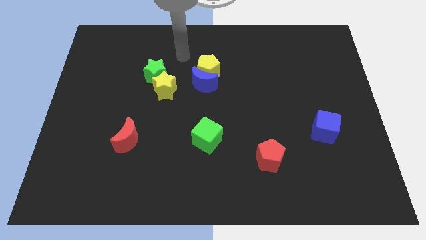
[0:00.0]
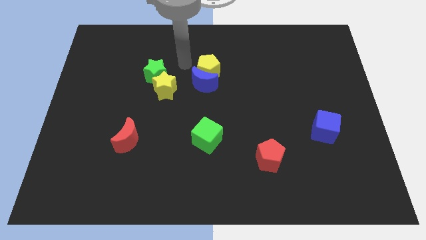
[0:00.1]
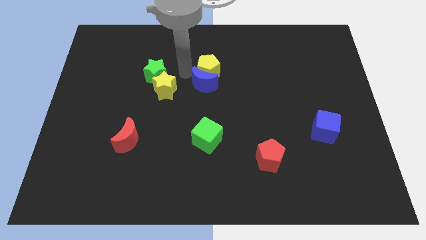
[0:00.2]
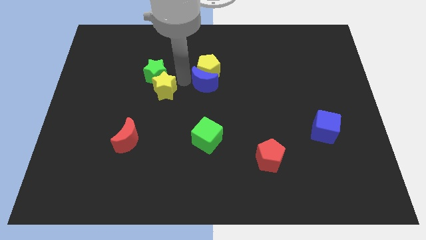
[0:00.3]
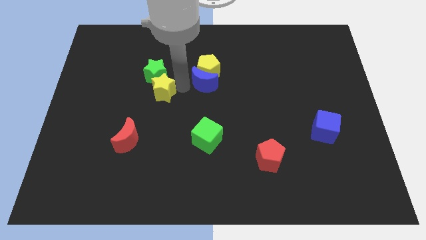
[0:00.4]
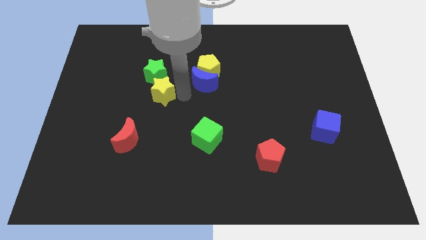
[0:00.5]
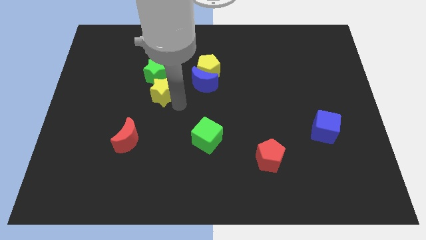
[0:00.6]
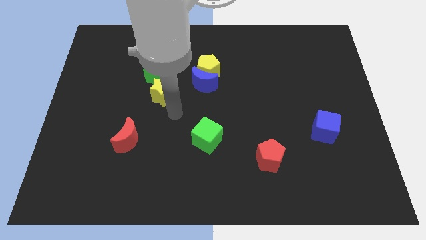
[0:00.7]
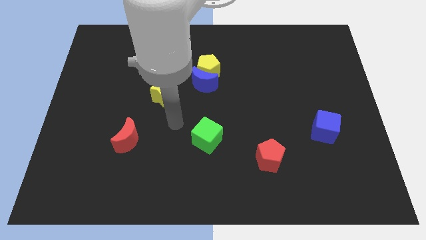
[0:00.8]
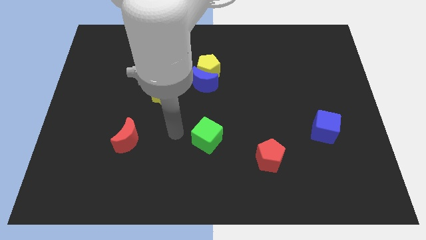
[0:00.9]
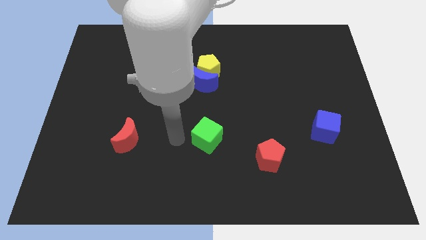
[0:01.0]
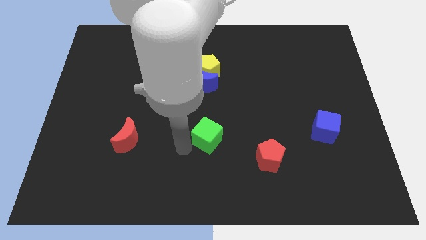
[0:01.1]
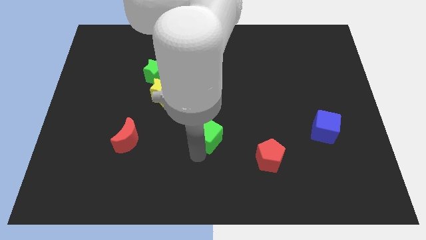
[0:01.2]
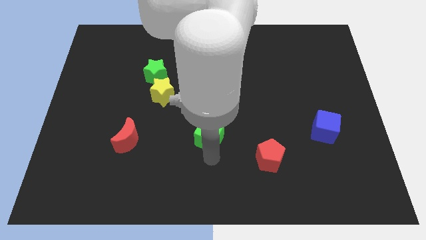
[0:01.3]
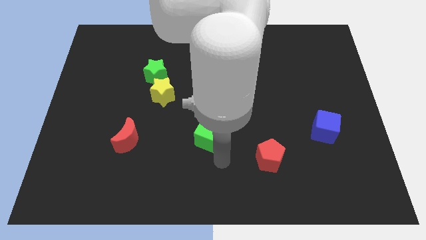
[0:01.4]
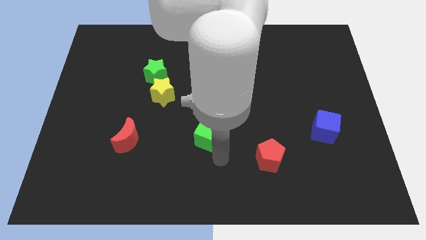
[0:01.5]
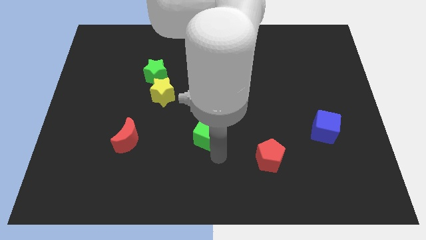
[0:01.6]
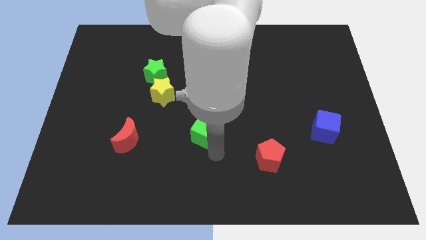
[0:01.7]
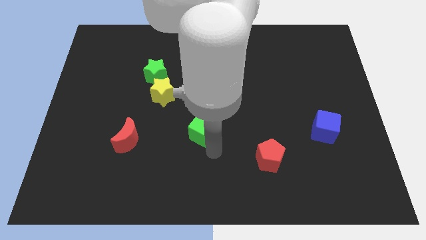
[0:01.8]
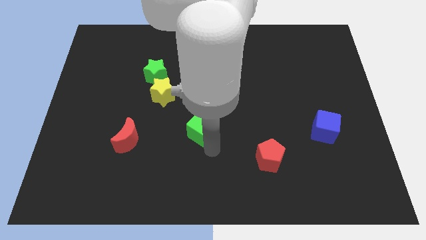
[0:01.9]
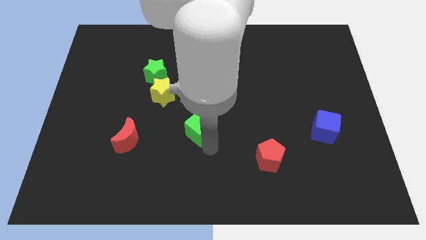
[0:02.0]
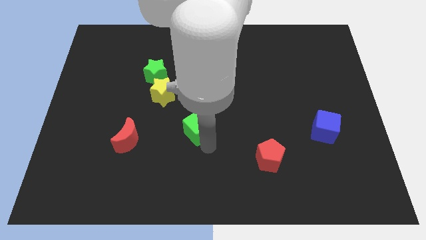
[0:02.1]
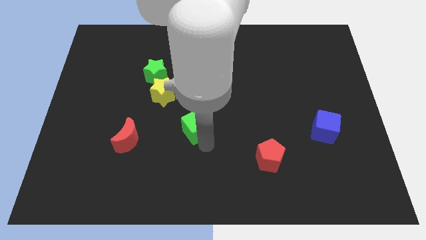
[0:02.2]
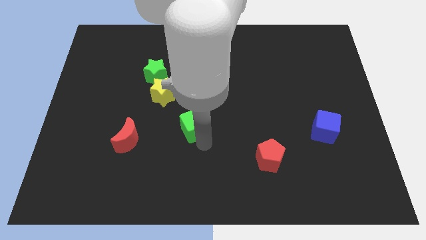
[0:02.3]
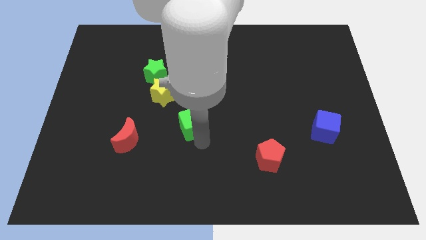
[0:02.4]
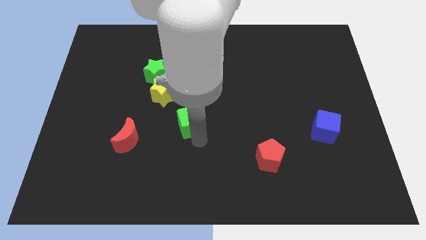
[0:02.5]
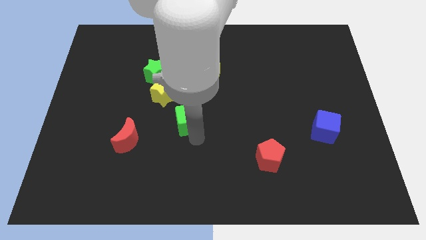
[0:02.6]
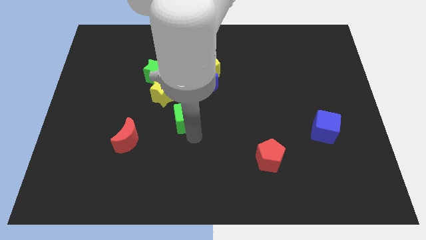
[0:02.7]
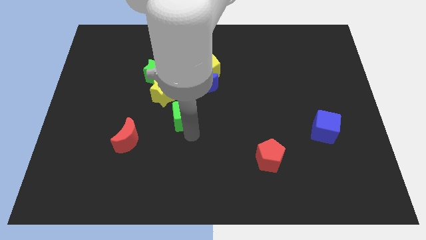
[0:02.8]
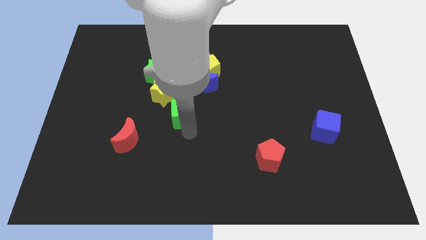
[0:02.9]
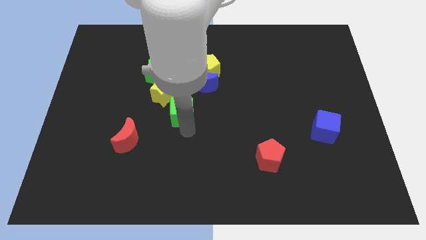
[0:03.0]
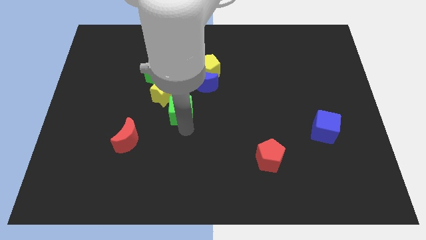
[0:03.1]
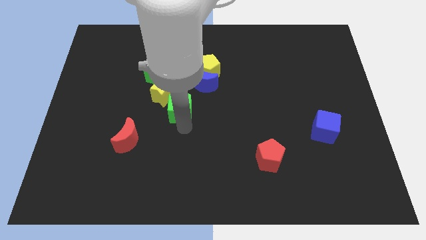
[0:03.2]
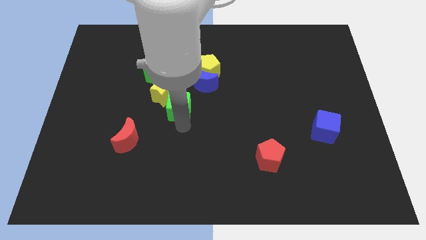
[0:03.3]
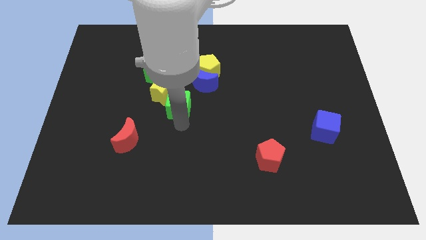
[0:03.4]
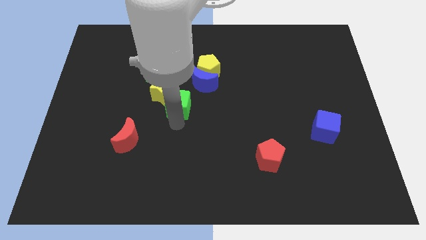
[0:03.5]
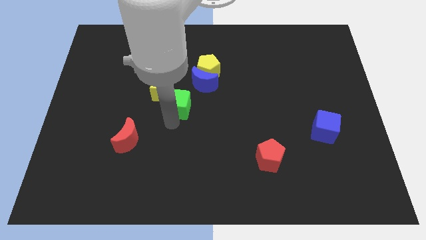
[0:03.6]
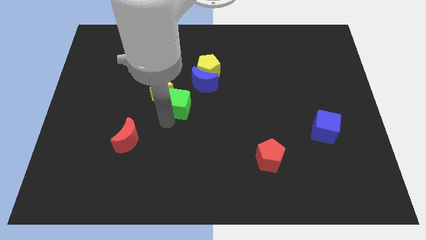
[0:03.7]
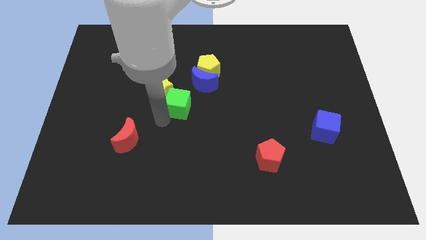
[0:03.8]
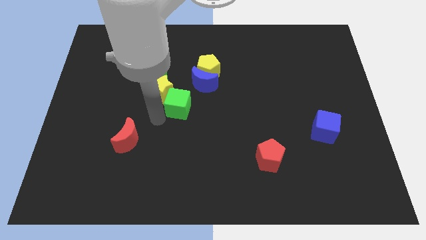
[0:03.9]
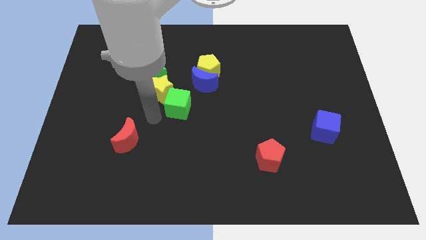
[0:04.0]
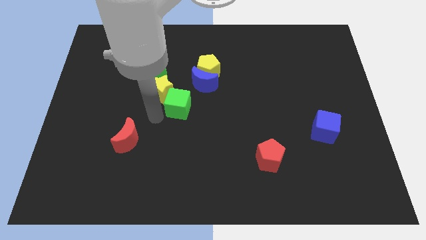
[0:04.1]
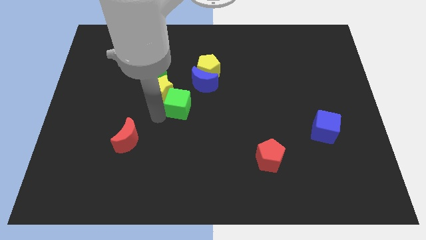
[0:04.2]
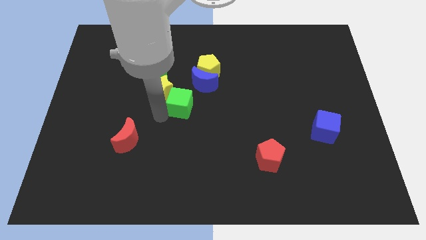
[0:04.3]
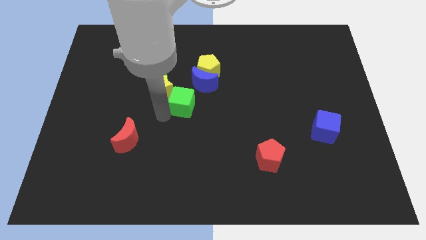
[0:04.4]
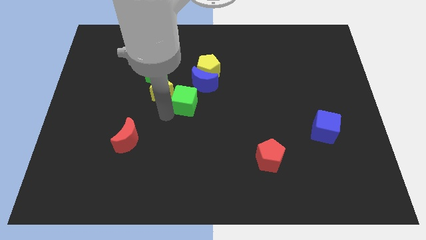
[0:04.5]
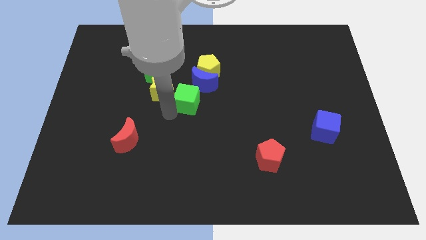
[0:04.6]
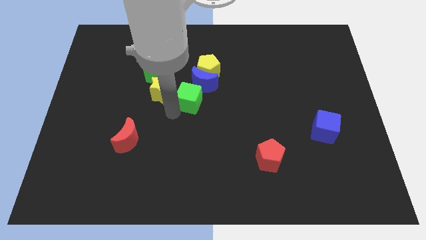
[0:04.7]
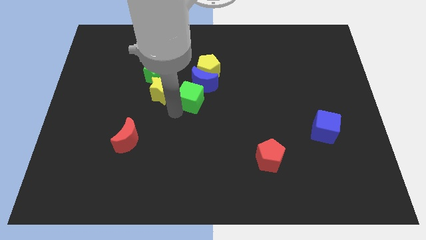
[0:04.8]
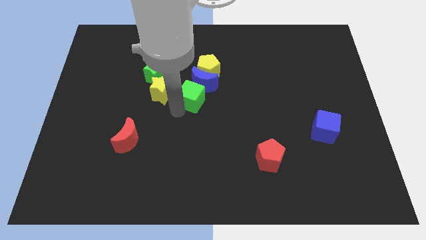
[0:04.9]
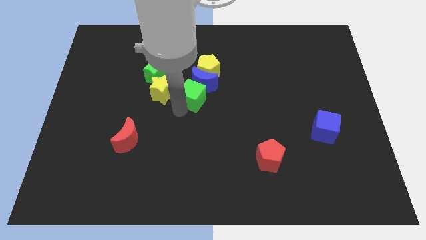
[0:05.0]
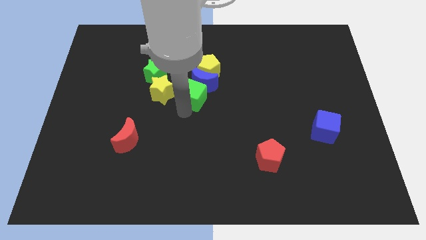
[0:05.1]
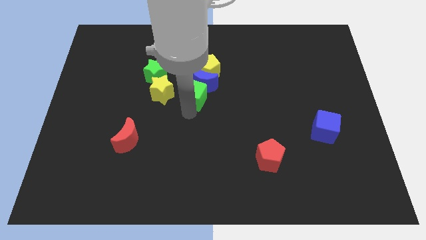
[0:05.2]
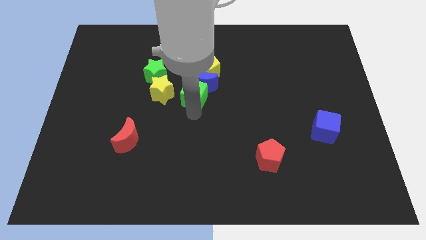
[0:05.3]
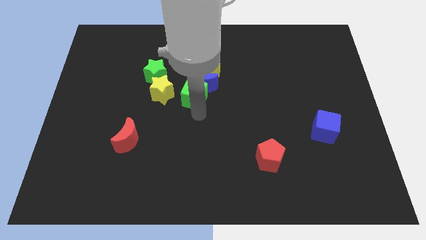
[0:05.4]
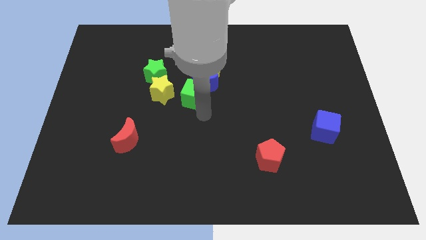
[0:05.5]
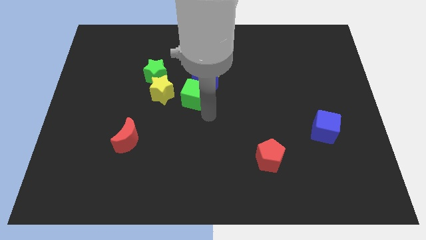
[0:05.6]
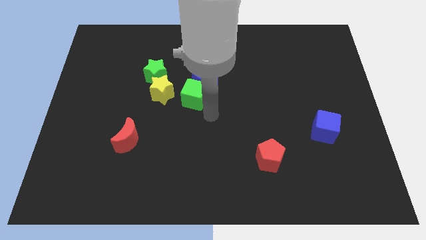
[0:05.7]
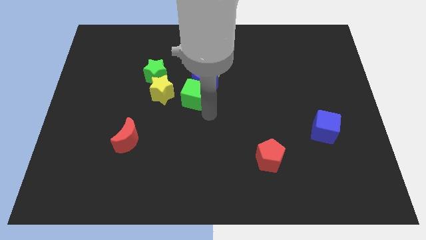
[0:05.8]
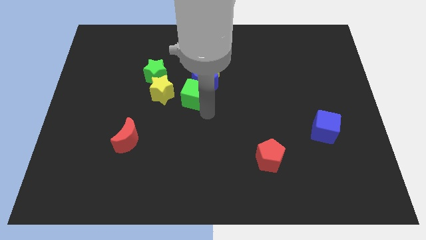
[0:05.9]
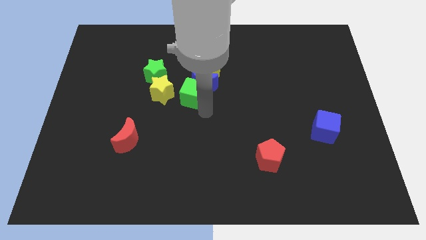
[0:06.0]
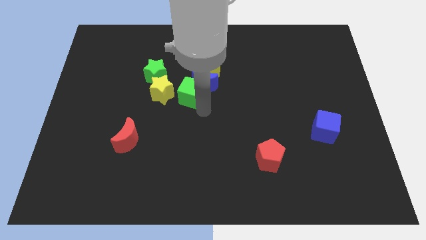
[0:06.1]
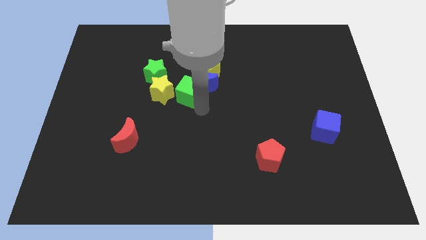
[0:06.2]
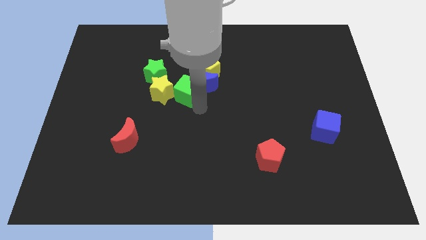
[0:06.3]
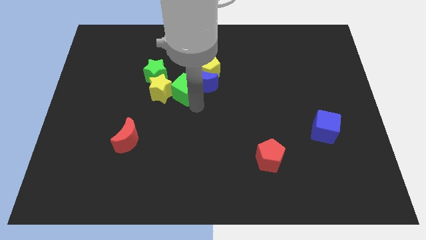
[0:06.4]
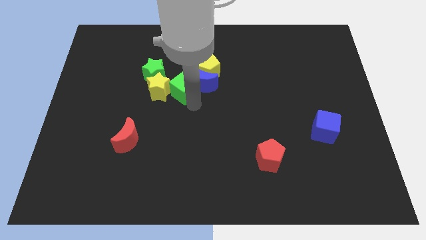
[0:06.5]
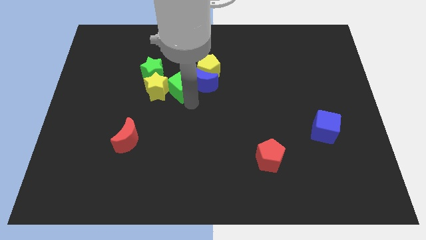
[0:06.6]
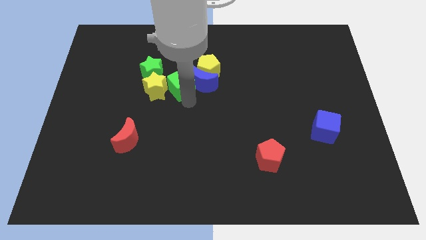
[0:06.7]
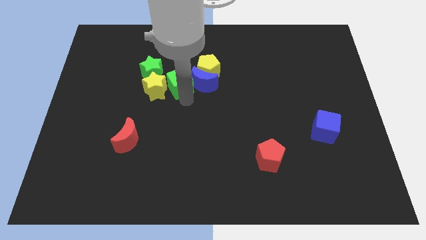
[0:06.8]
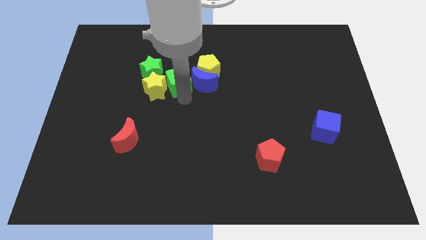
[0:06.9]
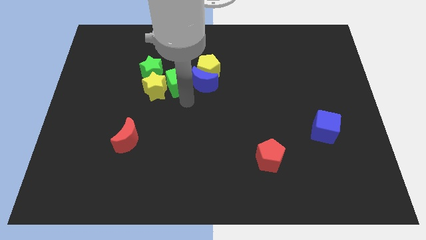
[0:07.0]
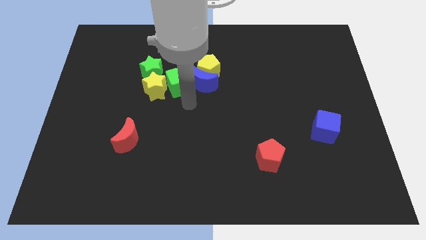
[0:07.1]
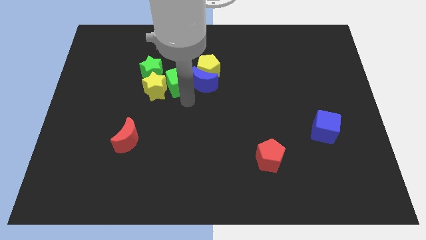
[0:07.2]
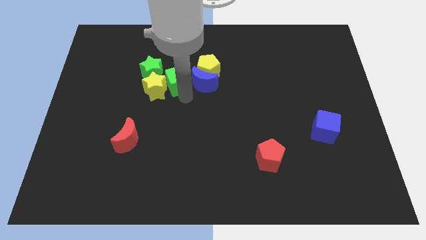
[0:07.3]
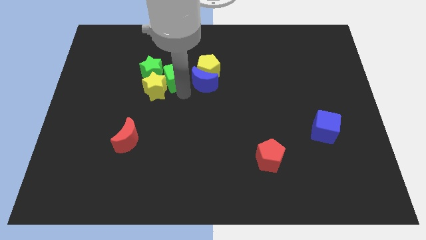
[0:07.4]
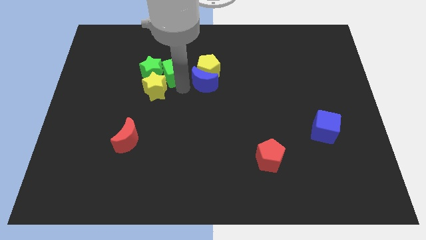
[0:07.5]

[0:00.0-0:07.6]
put the green cube towards the green star
